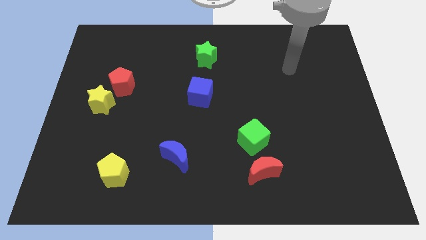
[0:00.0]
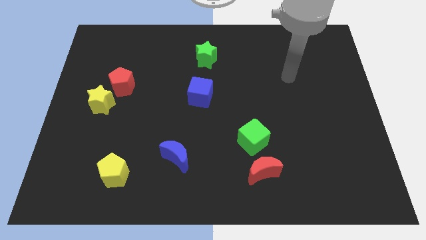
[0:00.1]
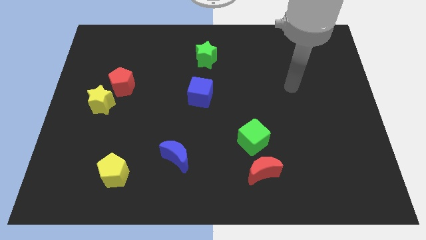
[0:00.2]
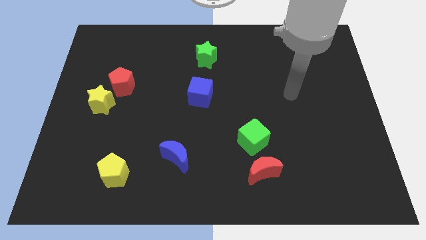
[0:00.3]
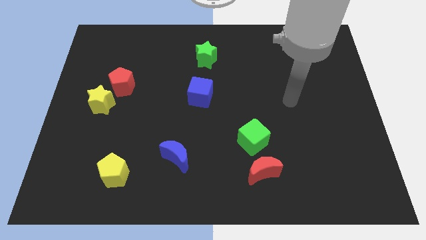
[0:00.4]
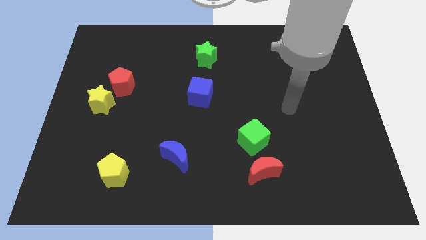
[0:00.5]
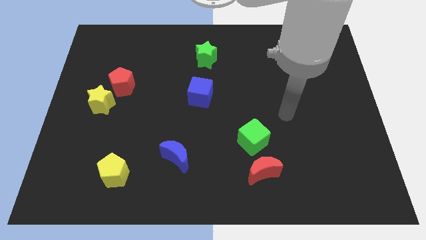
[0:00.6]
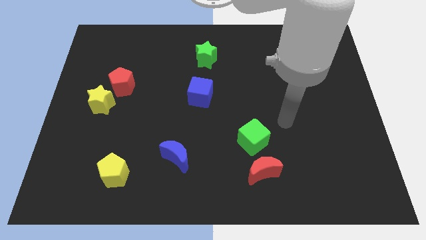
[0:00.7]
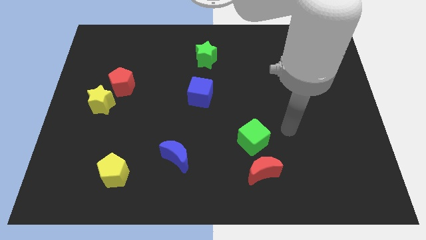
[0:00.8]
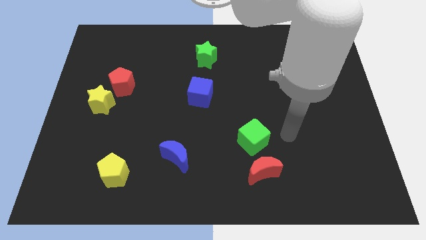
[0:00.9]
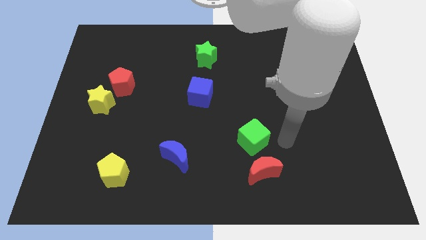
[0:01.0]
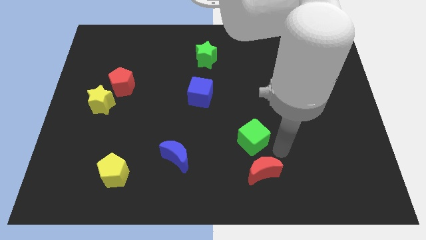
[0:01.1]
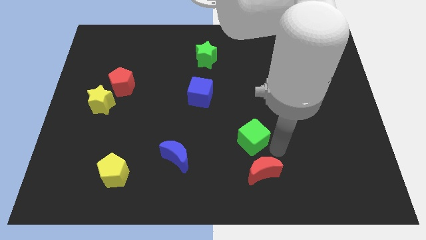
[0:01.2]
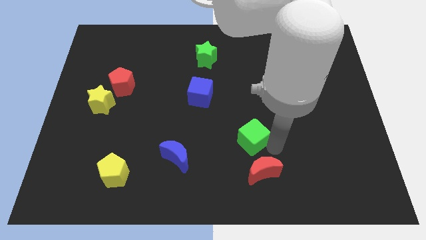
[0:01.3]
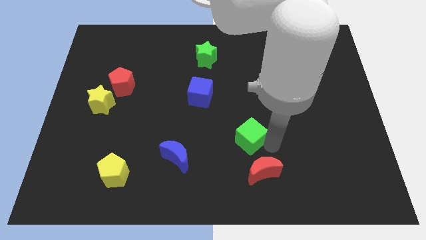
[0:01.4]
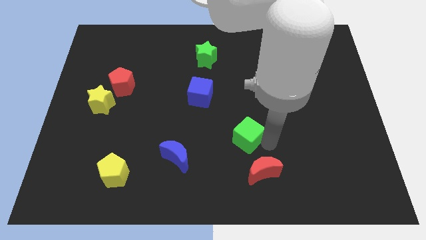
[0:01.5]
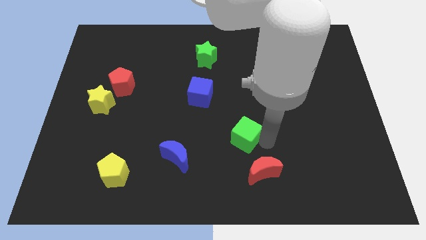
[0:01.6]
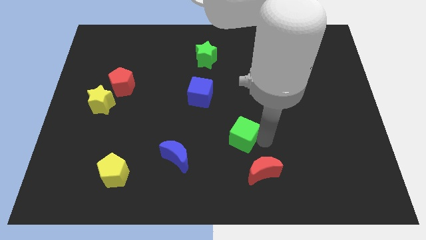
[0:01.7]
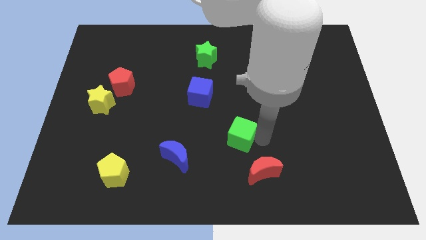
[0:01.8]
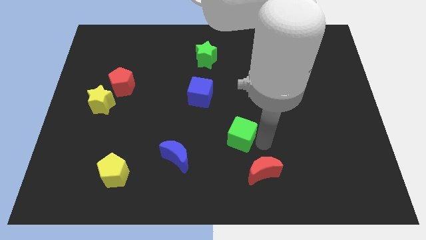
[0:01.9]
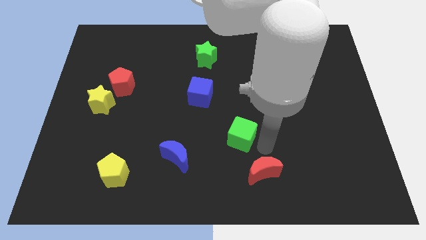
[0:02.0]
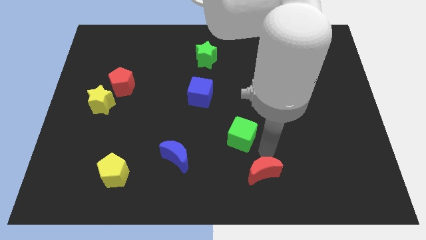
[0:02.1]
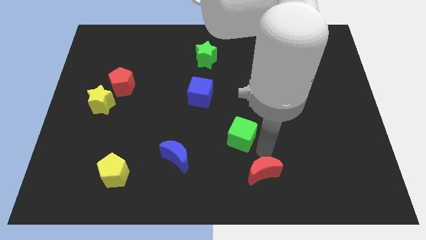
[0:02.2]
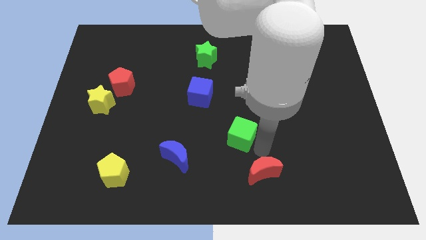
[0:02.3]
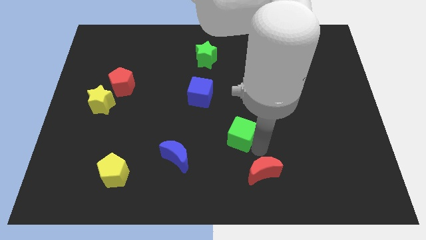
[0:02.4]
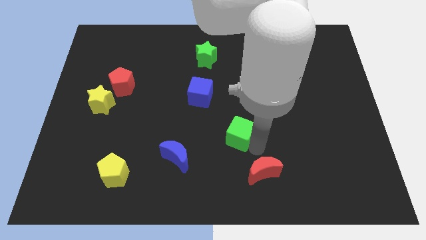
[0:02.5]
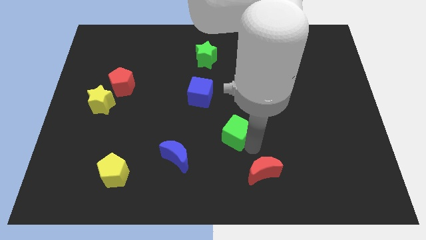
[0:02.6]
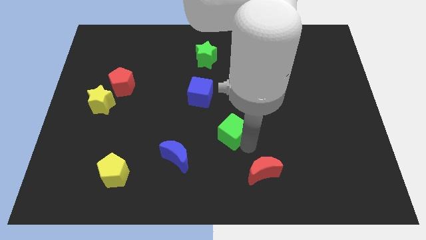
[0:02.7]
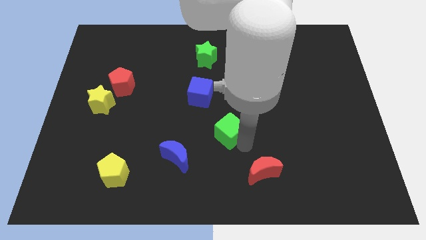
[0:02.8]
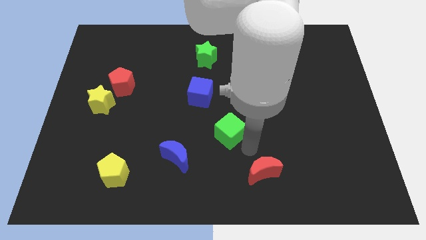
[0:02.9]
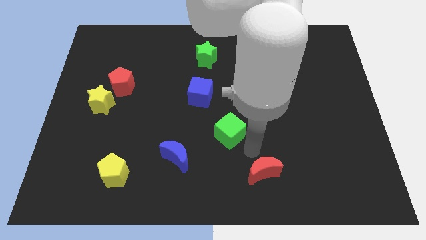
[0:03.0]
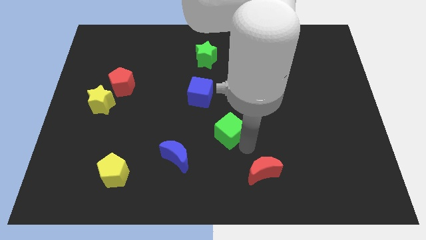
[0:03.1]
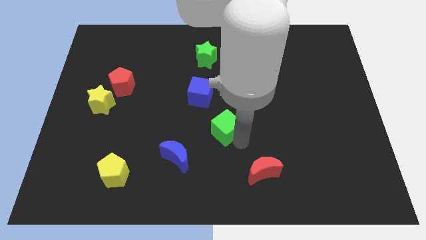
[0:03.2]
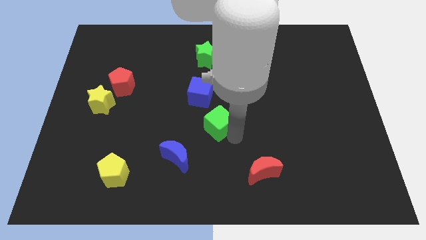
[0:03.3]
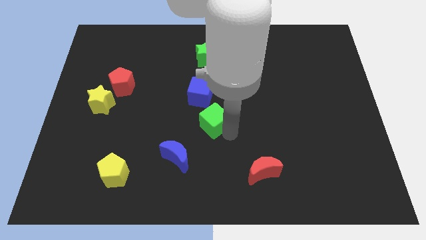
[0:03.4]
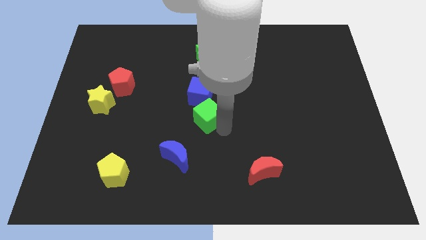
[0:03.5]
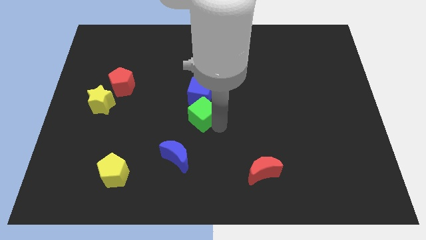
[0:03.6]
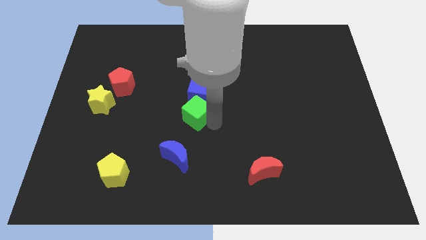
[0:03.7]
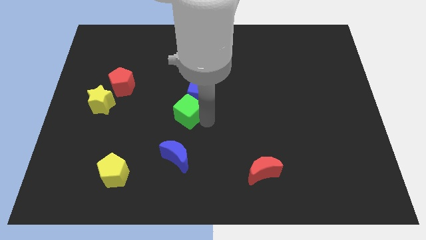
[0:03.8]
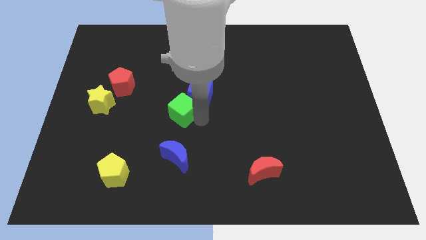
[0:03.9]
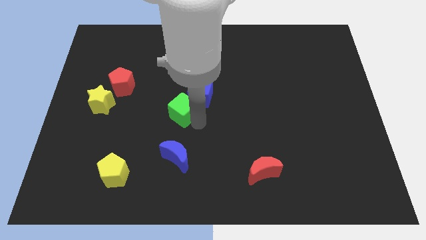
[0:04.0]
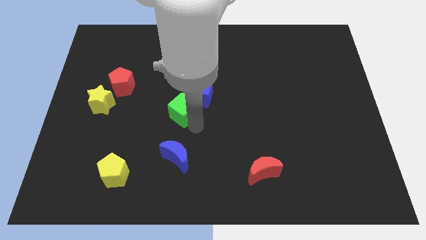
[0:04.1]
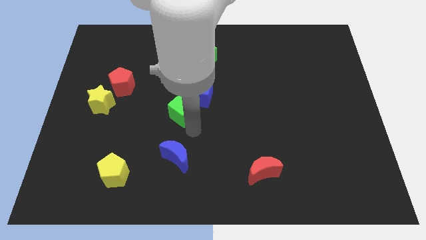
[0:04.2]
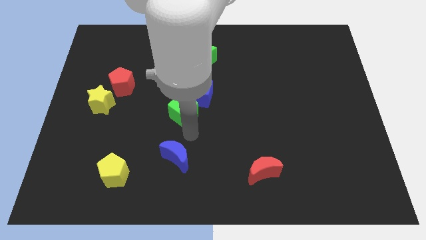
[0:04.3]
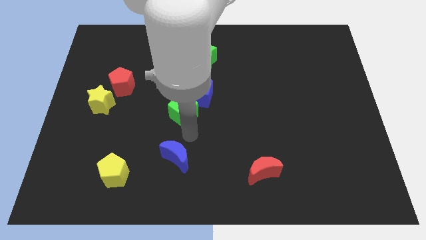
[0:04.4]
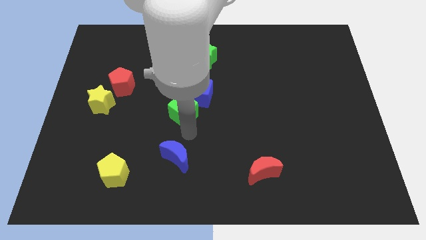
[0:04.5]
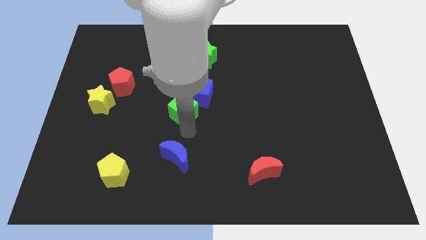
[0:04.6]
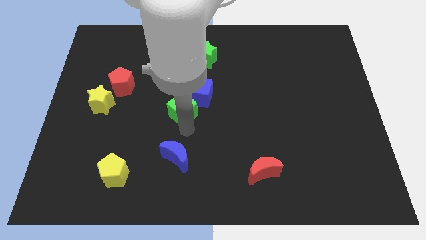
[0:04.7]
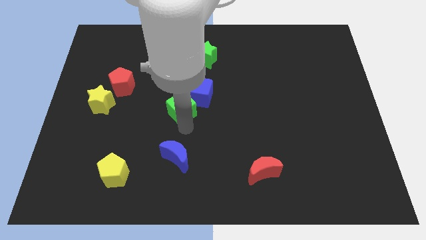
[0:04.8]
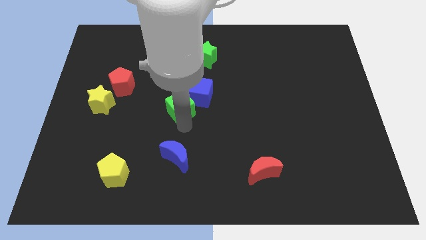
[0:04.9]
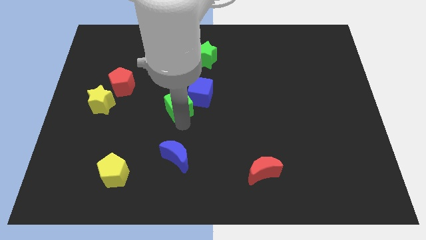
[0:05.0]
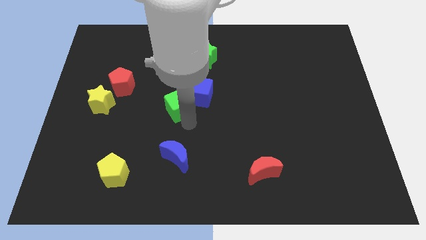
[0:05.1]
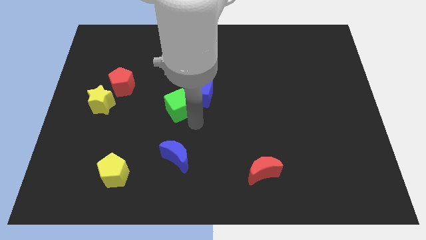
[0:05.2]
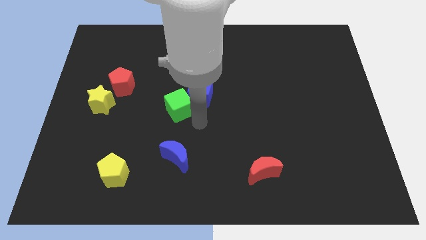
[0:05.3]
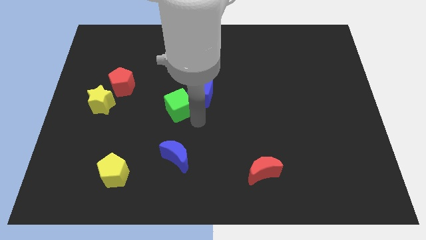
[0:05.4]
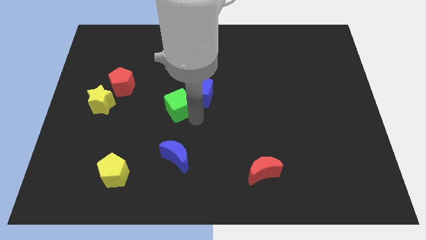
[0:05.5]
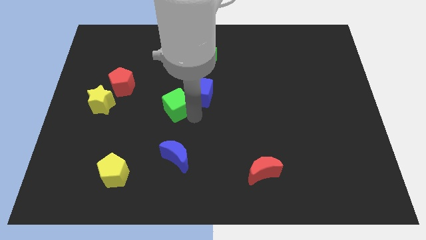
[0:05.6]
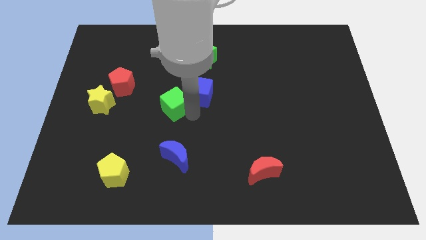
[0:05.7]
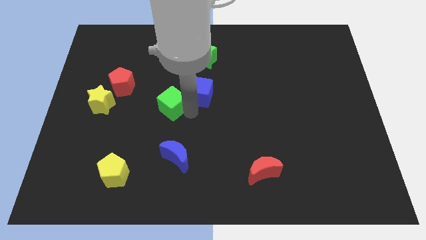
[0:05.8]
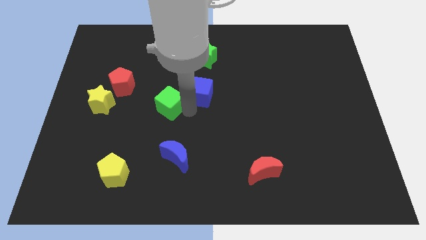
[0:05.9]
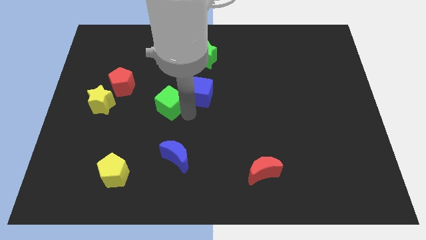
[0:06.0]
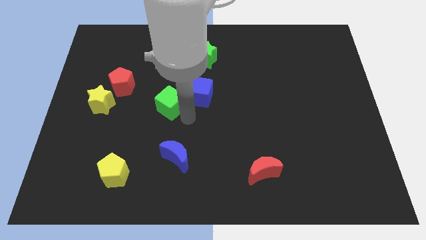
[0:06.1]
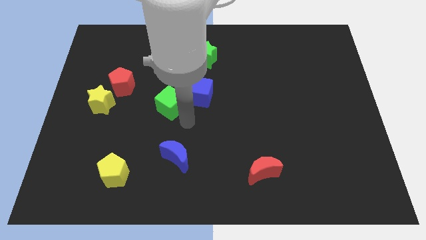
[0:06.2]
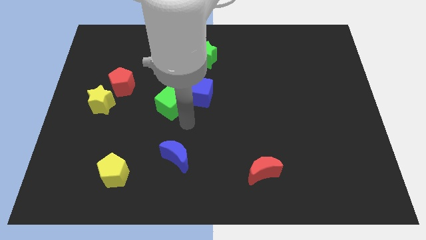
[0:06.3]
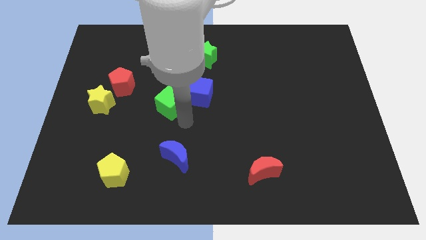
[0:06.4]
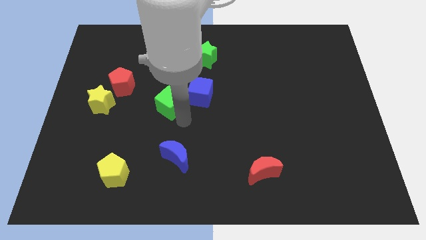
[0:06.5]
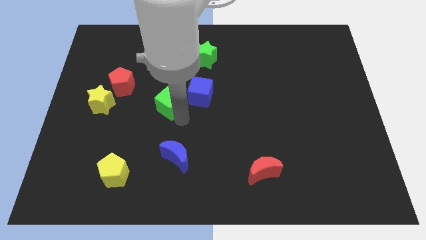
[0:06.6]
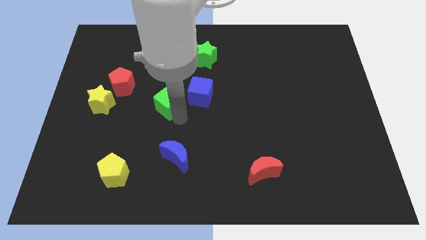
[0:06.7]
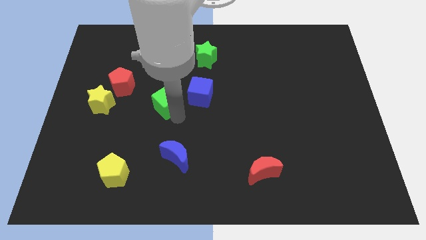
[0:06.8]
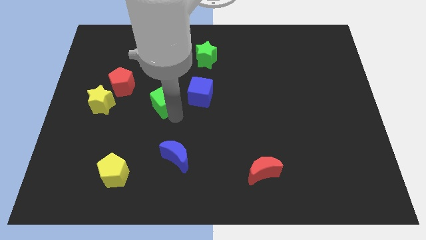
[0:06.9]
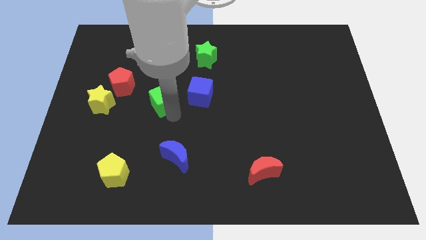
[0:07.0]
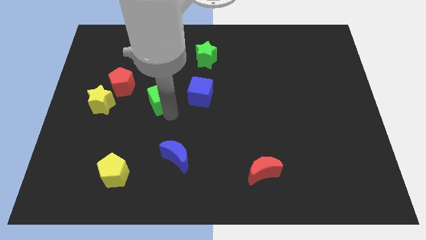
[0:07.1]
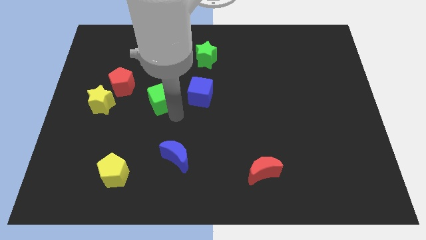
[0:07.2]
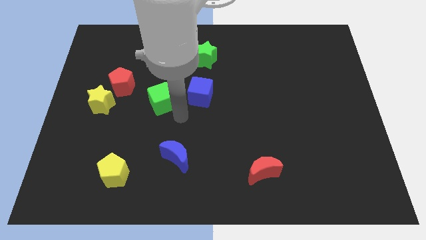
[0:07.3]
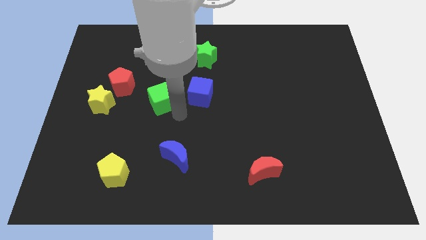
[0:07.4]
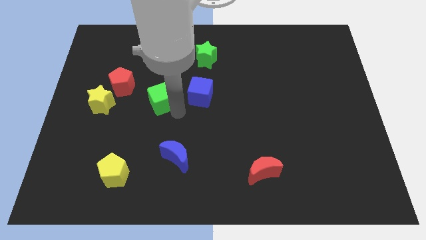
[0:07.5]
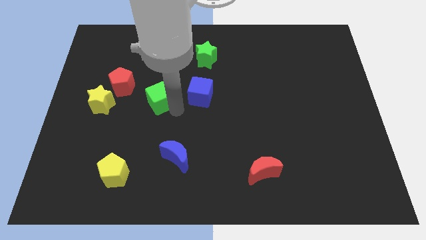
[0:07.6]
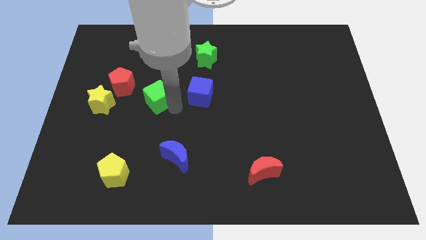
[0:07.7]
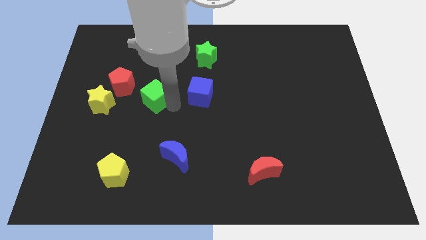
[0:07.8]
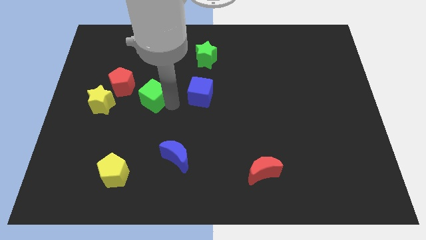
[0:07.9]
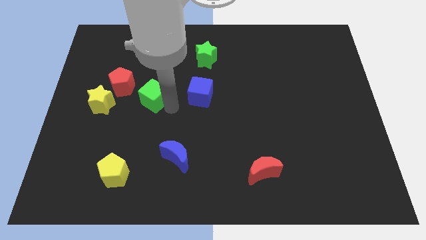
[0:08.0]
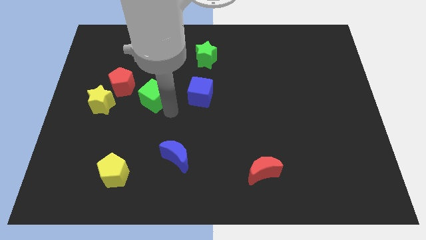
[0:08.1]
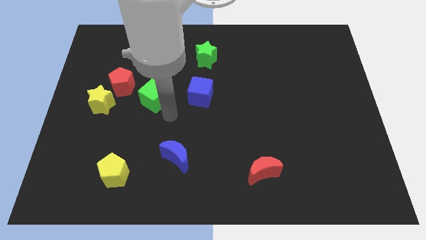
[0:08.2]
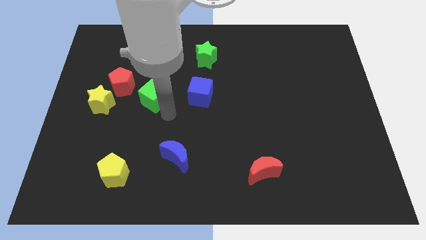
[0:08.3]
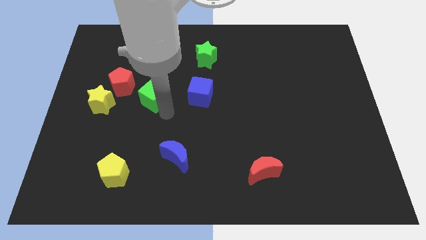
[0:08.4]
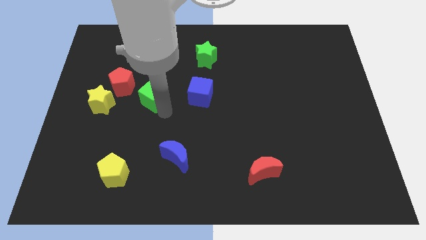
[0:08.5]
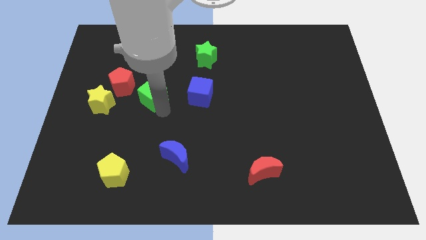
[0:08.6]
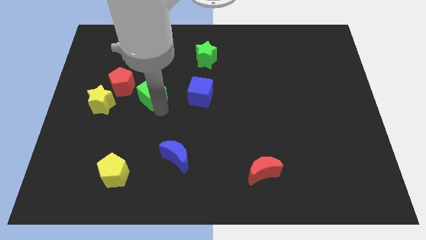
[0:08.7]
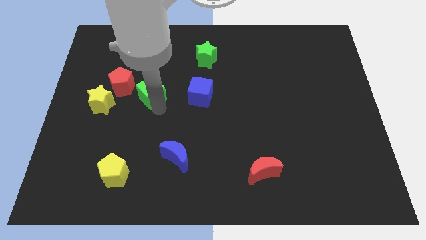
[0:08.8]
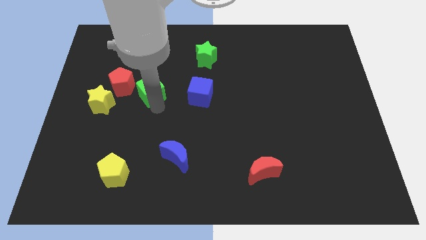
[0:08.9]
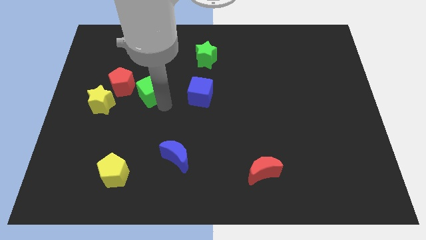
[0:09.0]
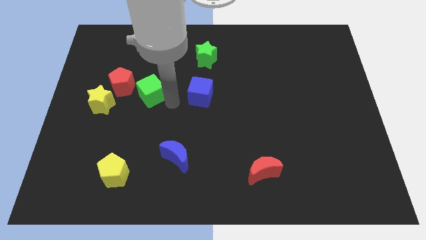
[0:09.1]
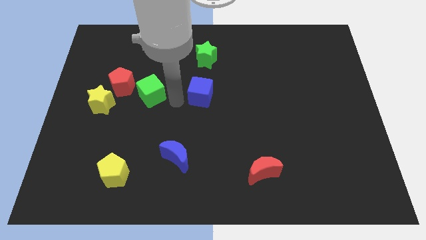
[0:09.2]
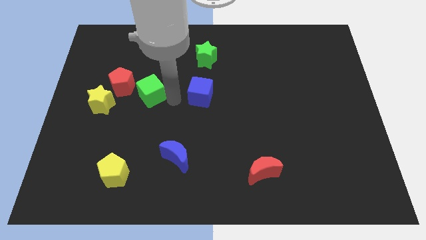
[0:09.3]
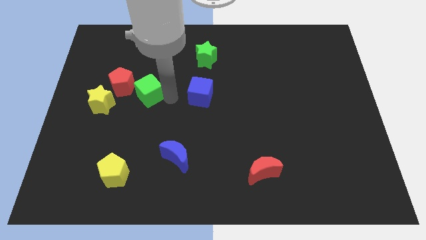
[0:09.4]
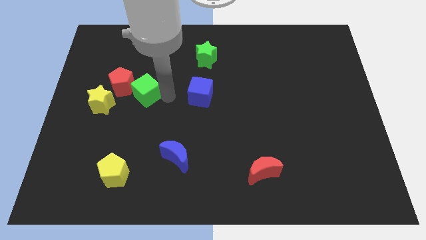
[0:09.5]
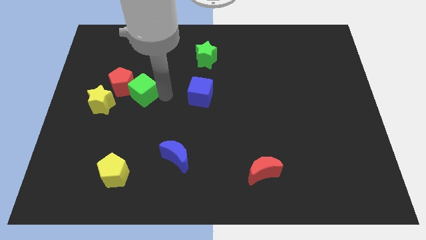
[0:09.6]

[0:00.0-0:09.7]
move the green cube close to the red pentagon
